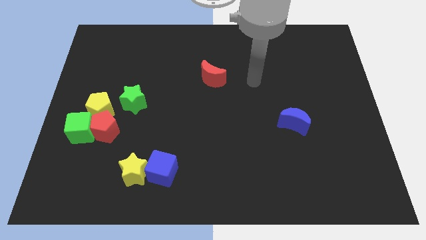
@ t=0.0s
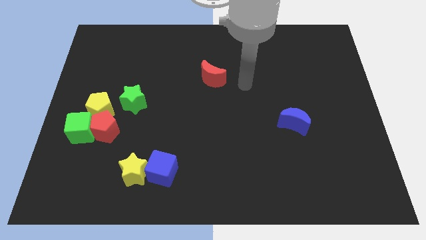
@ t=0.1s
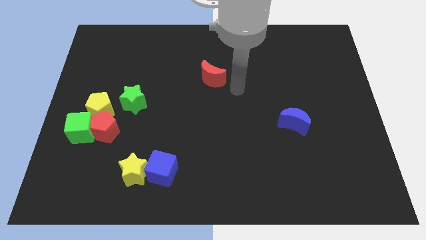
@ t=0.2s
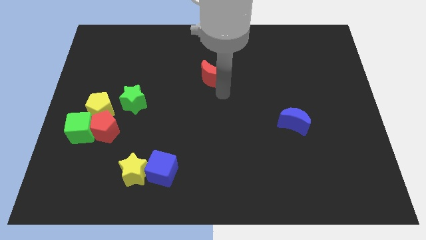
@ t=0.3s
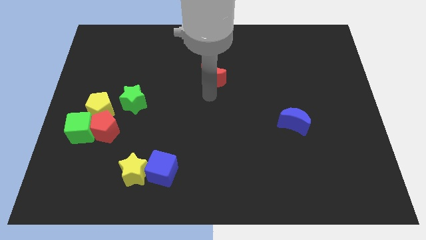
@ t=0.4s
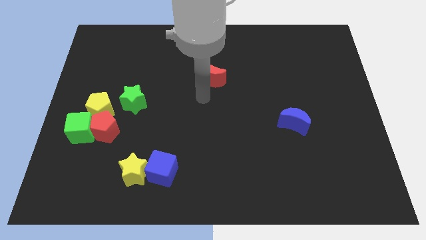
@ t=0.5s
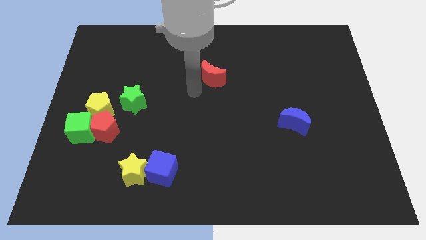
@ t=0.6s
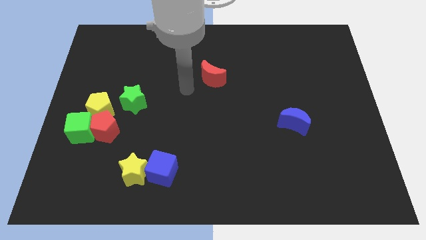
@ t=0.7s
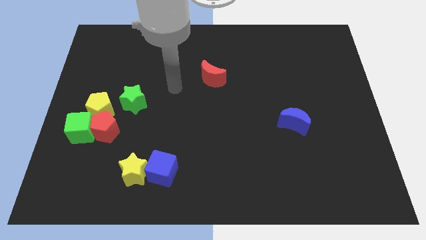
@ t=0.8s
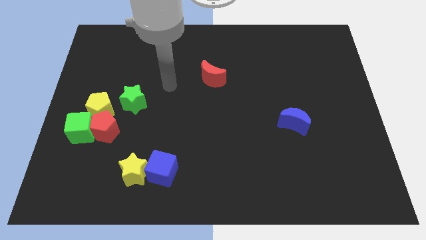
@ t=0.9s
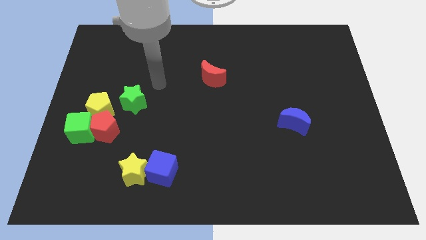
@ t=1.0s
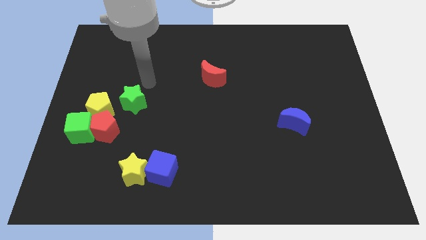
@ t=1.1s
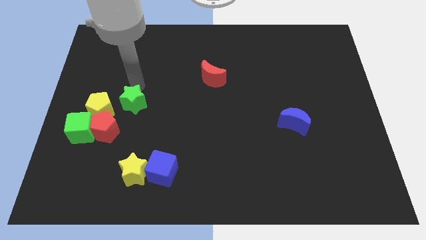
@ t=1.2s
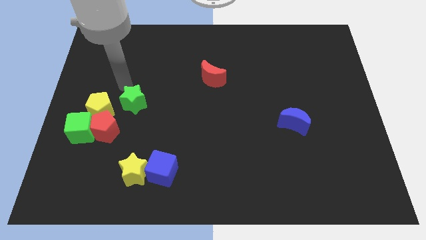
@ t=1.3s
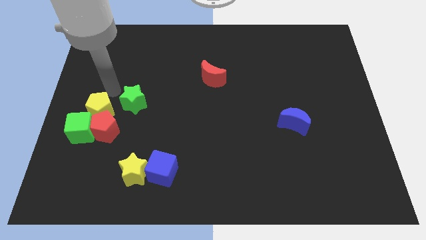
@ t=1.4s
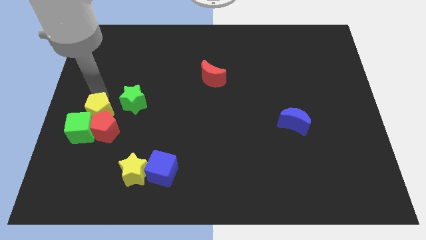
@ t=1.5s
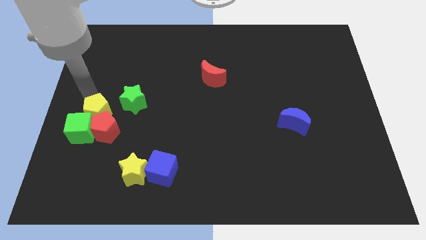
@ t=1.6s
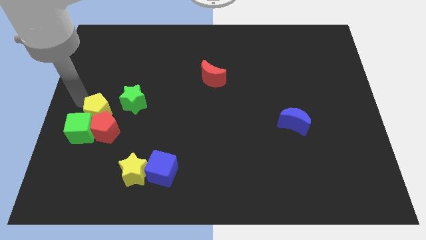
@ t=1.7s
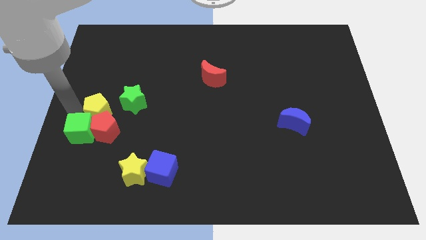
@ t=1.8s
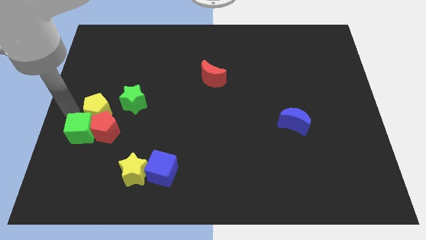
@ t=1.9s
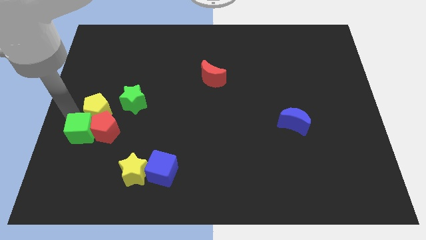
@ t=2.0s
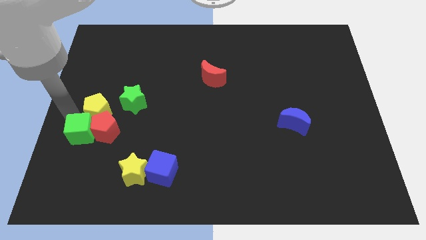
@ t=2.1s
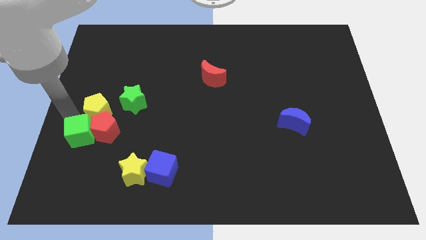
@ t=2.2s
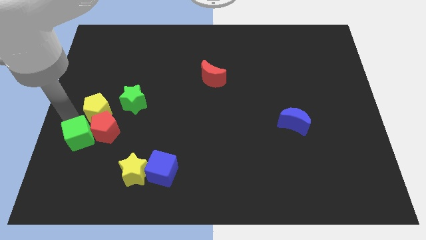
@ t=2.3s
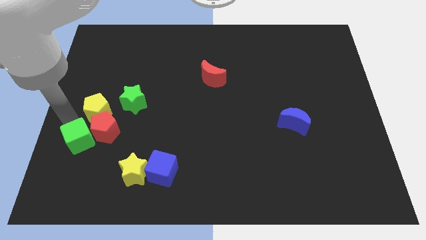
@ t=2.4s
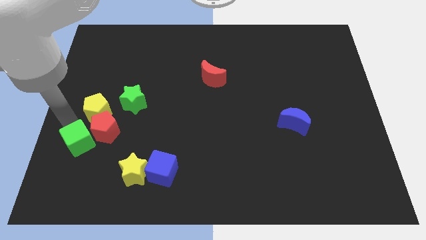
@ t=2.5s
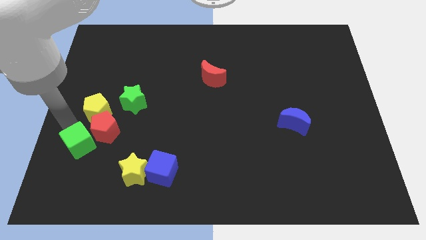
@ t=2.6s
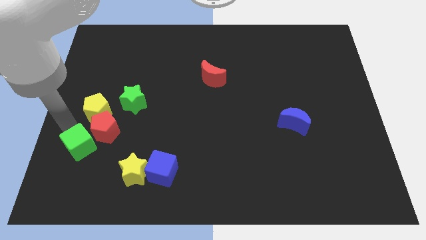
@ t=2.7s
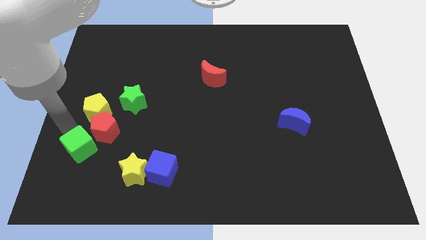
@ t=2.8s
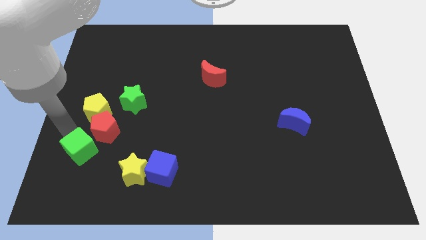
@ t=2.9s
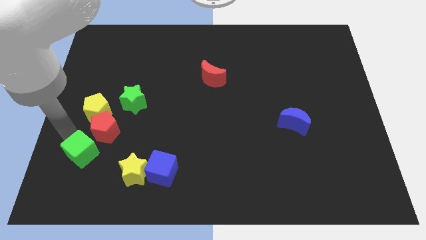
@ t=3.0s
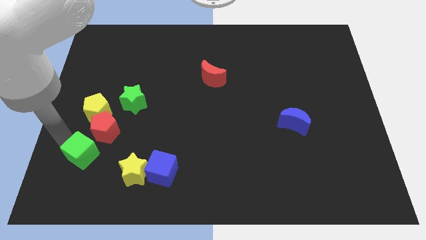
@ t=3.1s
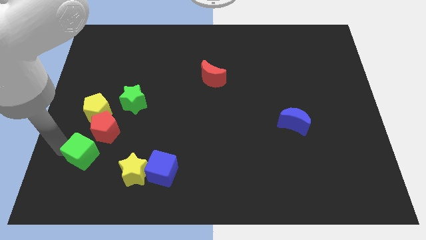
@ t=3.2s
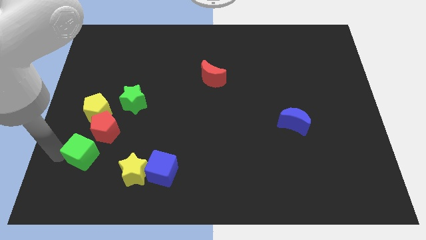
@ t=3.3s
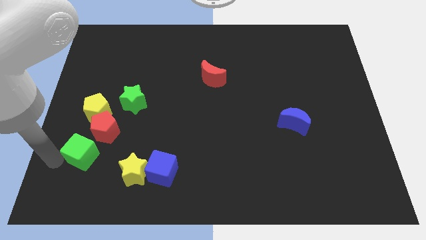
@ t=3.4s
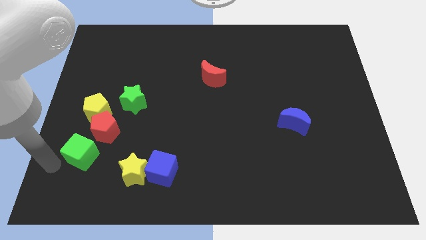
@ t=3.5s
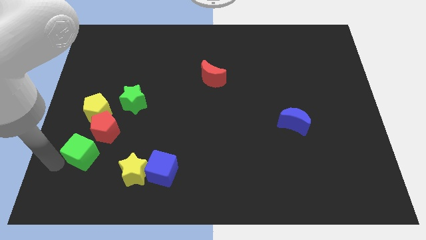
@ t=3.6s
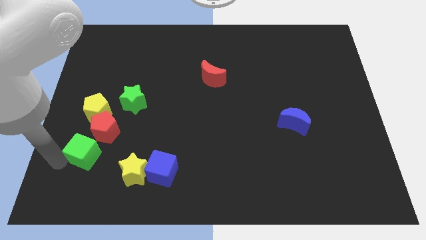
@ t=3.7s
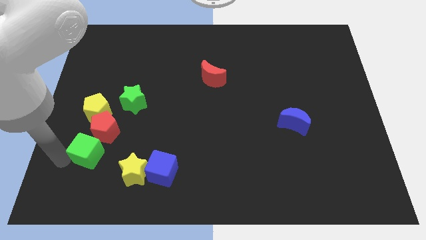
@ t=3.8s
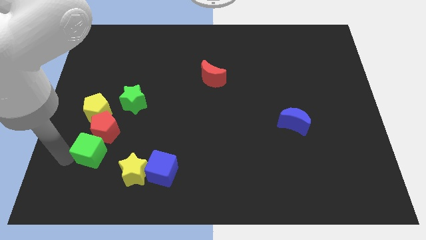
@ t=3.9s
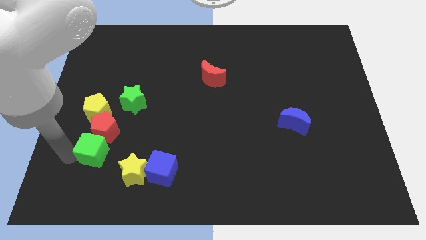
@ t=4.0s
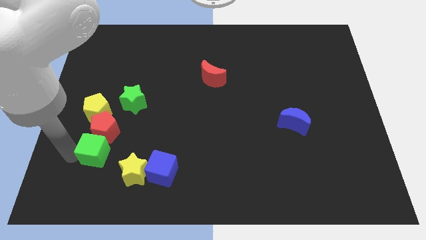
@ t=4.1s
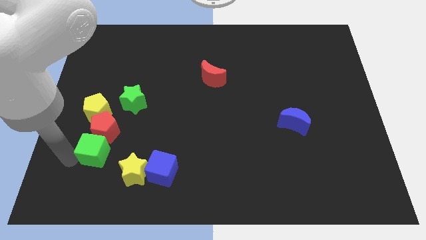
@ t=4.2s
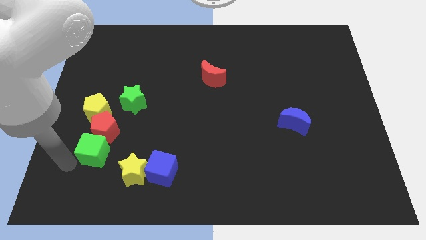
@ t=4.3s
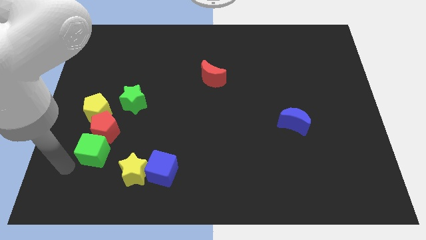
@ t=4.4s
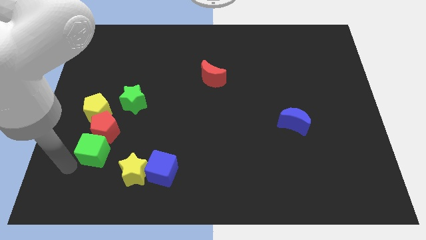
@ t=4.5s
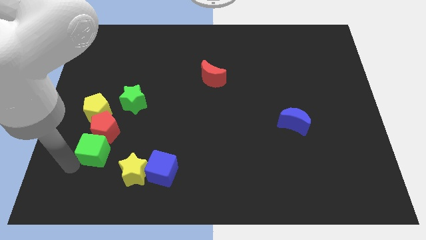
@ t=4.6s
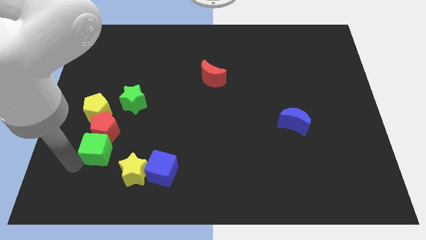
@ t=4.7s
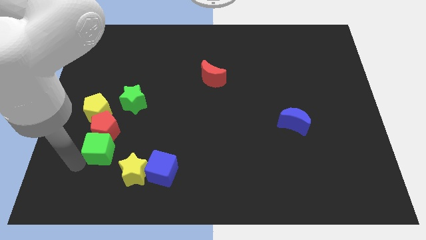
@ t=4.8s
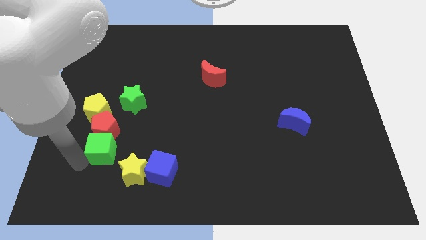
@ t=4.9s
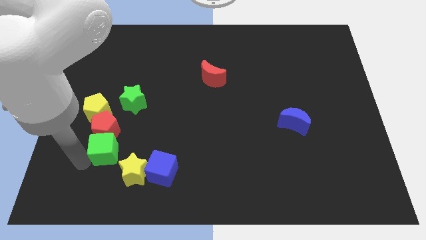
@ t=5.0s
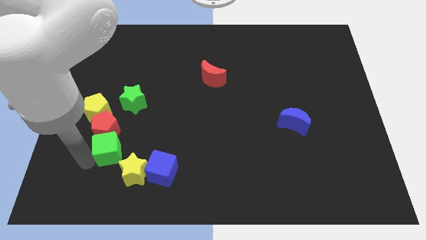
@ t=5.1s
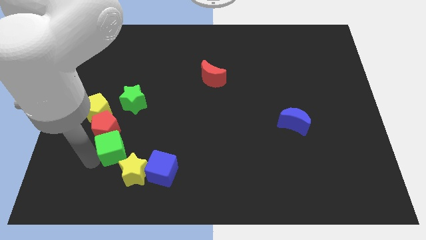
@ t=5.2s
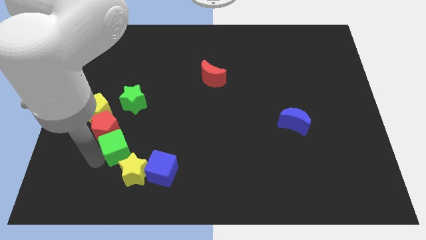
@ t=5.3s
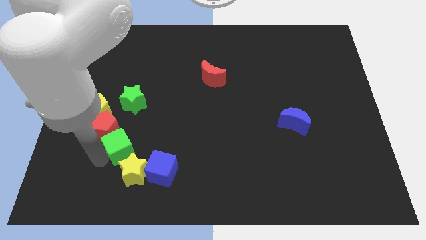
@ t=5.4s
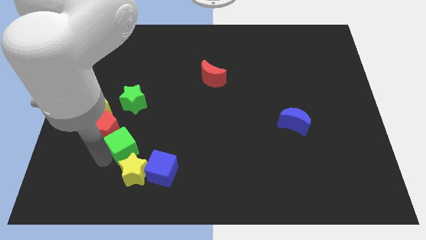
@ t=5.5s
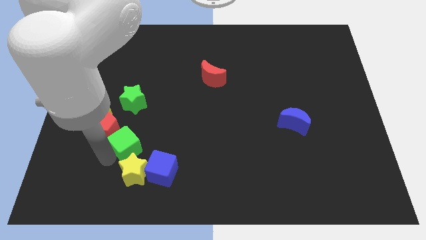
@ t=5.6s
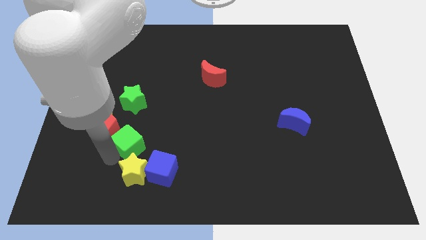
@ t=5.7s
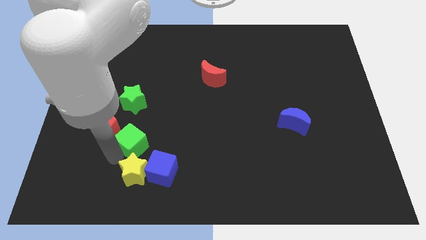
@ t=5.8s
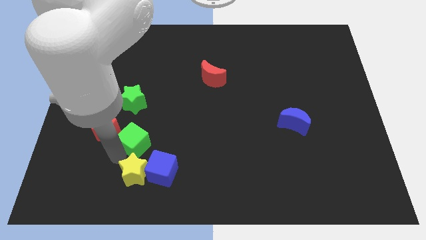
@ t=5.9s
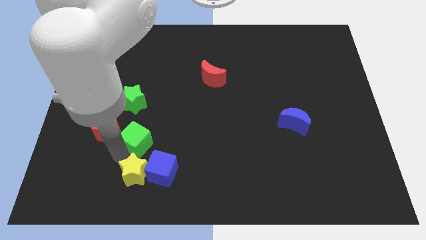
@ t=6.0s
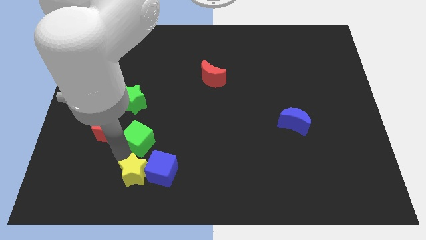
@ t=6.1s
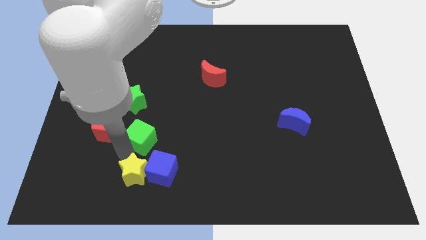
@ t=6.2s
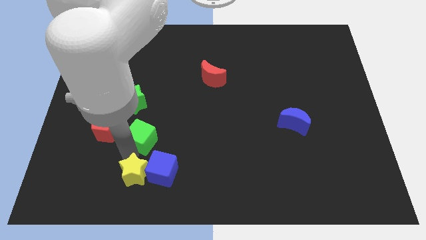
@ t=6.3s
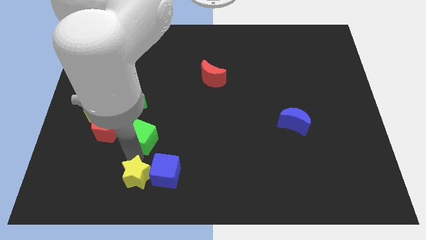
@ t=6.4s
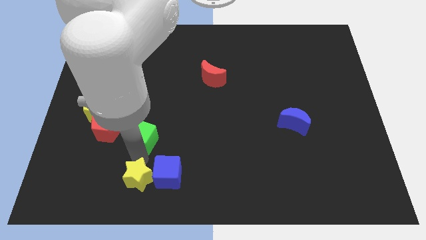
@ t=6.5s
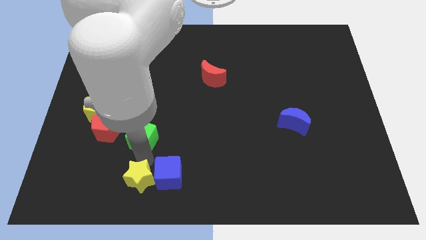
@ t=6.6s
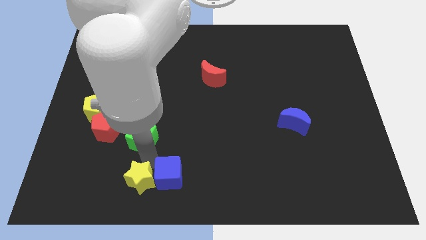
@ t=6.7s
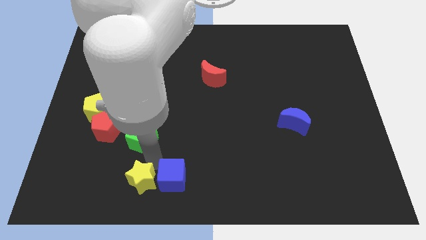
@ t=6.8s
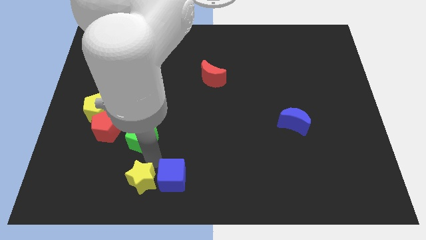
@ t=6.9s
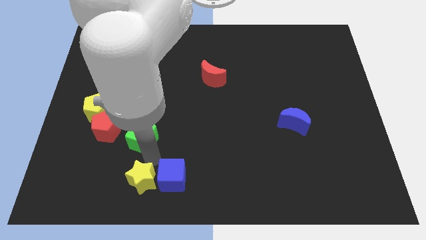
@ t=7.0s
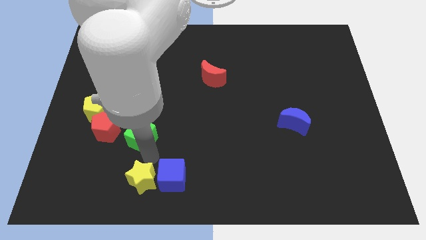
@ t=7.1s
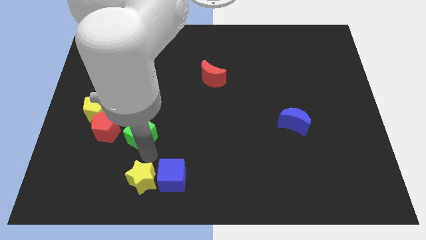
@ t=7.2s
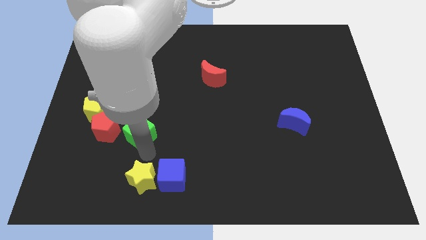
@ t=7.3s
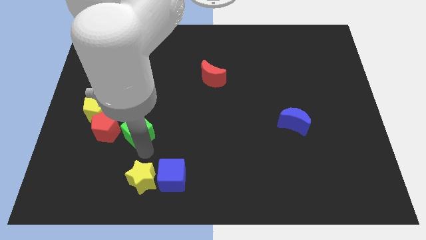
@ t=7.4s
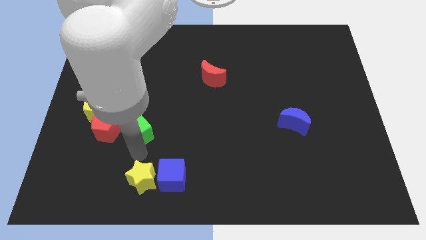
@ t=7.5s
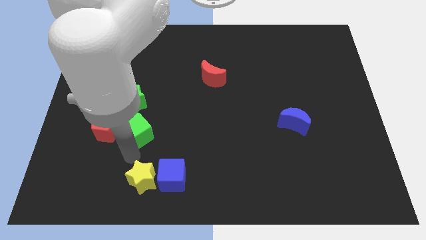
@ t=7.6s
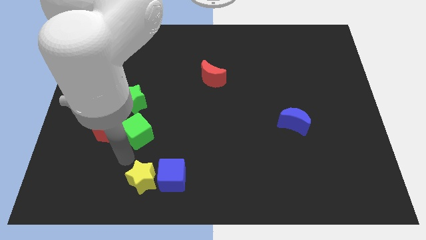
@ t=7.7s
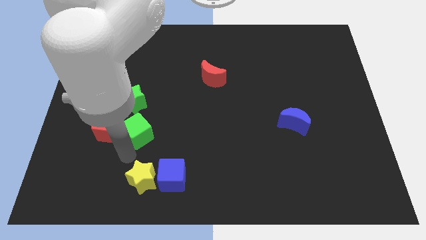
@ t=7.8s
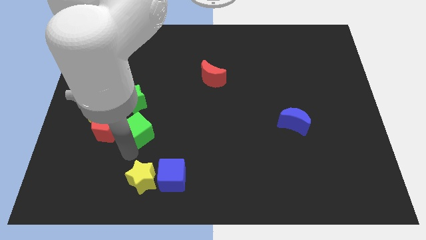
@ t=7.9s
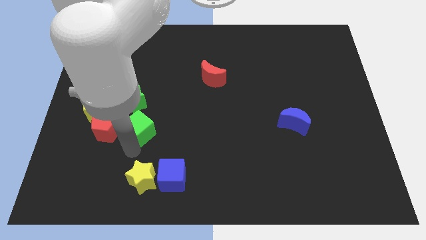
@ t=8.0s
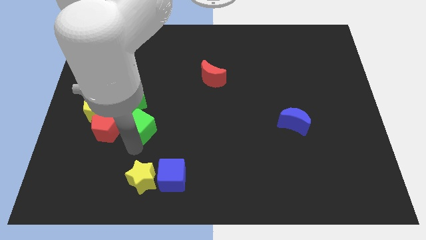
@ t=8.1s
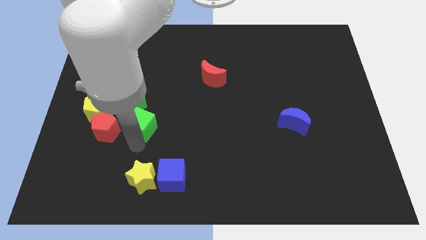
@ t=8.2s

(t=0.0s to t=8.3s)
slightly slide the green cube upwards and right
